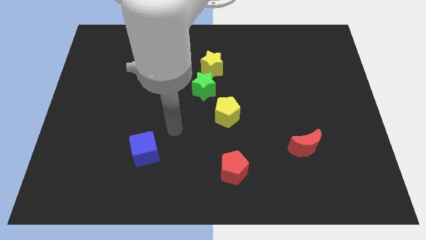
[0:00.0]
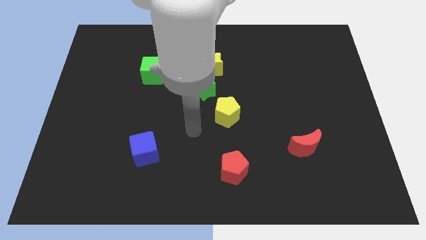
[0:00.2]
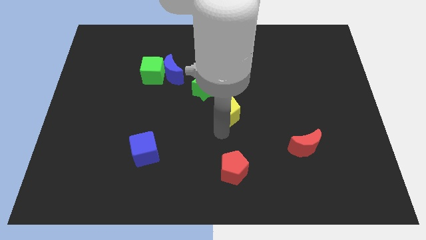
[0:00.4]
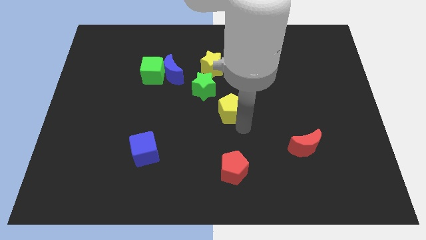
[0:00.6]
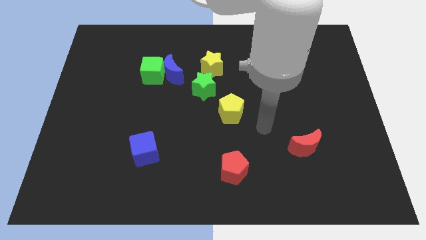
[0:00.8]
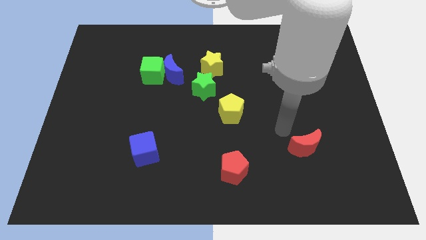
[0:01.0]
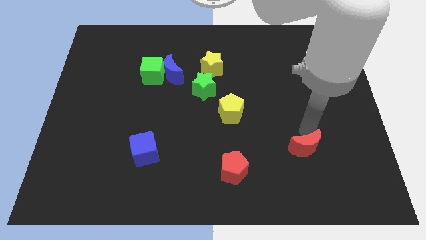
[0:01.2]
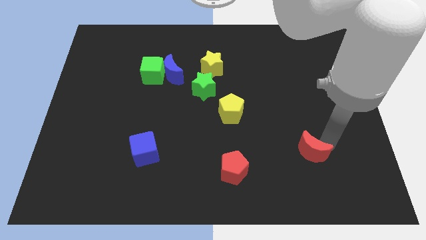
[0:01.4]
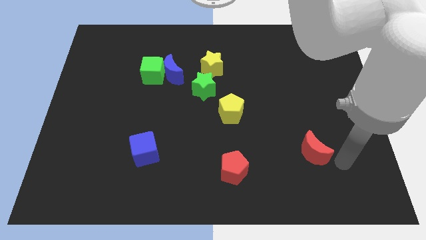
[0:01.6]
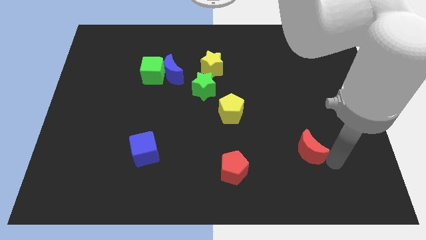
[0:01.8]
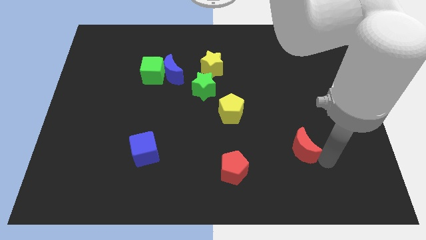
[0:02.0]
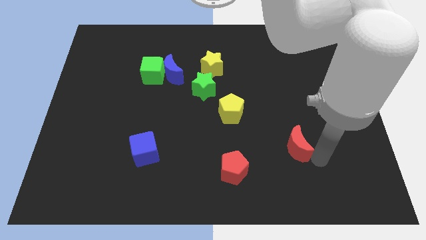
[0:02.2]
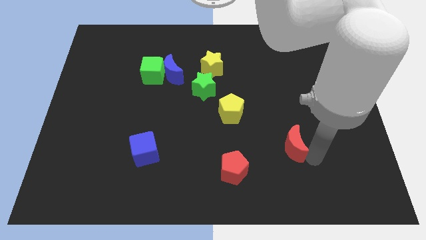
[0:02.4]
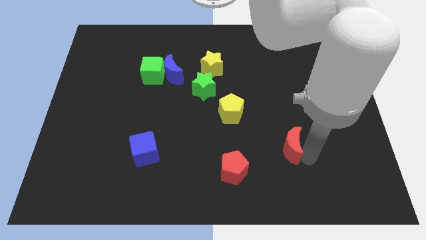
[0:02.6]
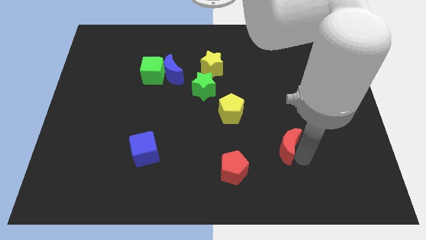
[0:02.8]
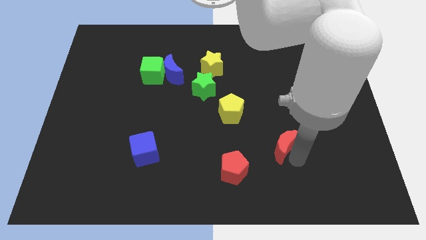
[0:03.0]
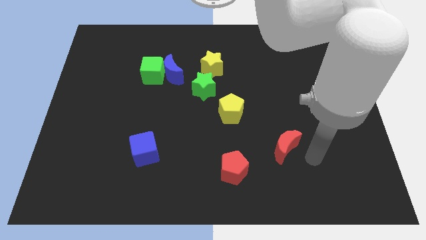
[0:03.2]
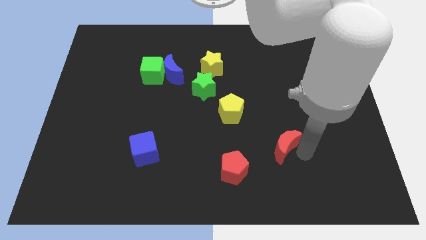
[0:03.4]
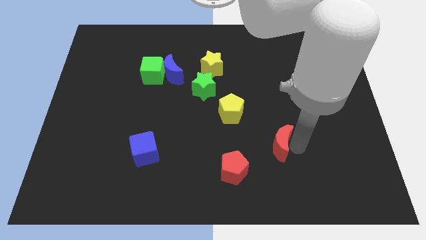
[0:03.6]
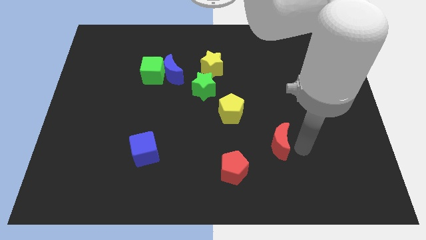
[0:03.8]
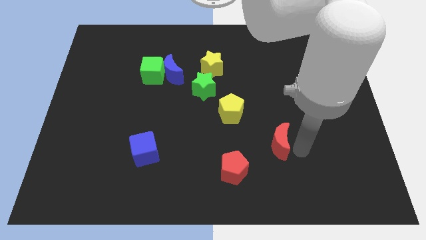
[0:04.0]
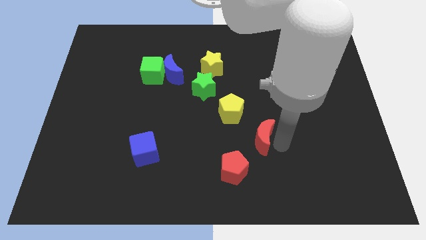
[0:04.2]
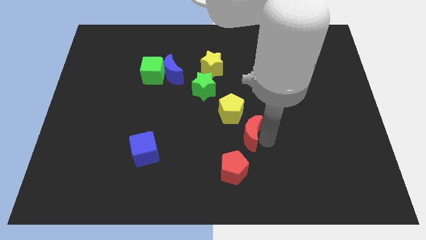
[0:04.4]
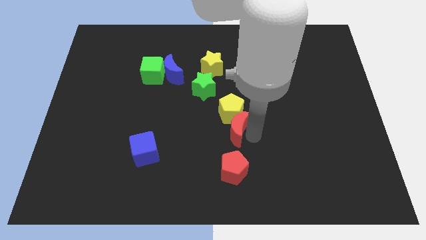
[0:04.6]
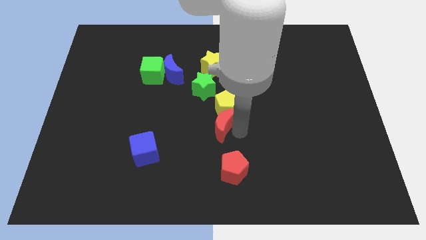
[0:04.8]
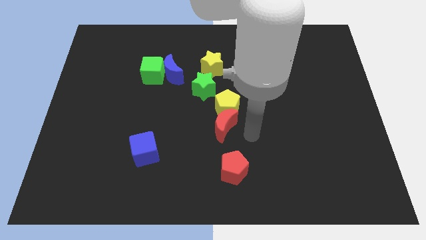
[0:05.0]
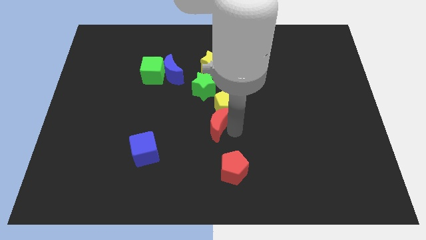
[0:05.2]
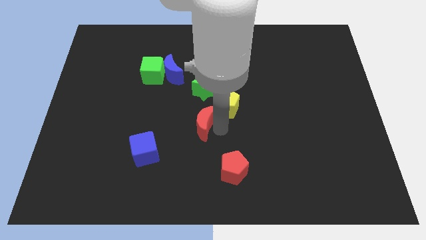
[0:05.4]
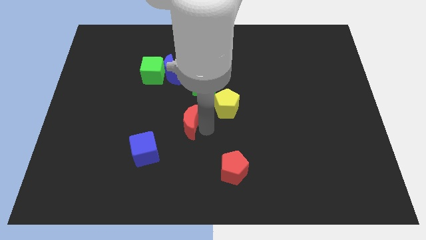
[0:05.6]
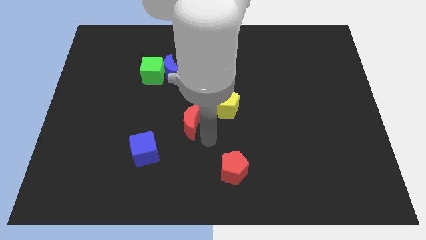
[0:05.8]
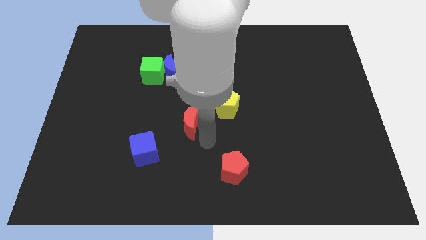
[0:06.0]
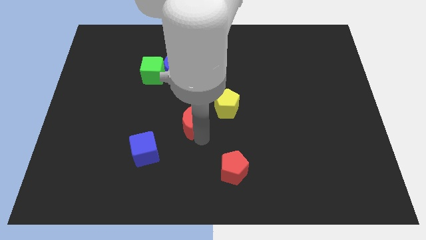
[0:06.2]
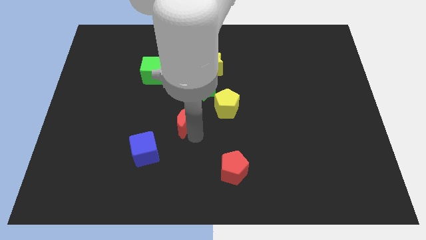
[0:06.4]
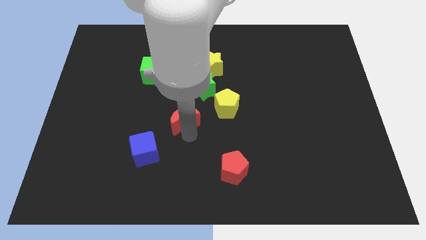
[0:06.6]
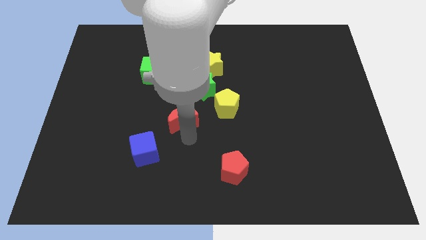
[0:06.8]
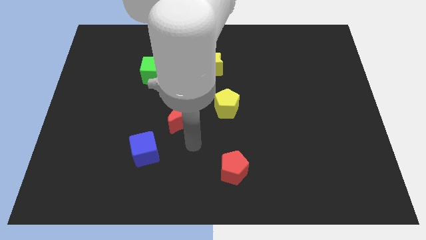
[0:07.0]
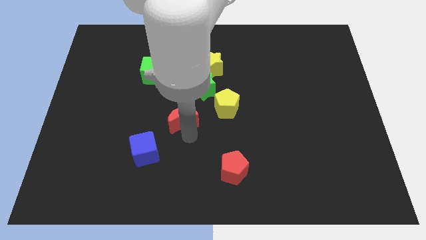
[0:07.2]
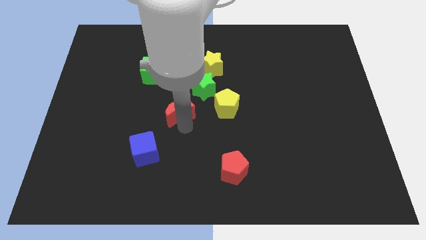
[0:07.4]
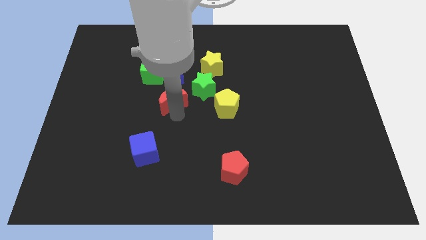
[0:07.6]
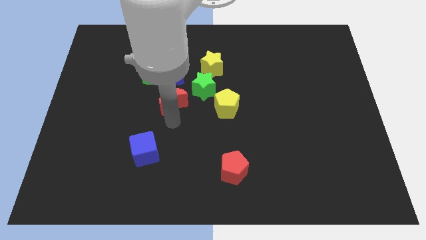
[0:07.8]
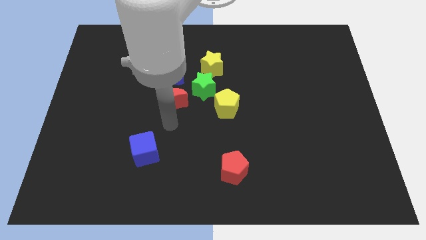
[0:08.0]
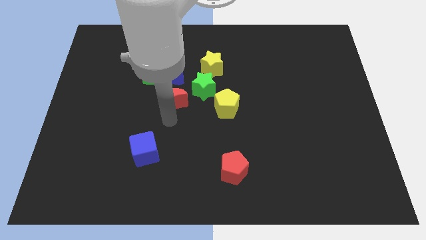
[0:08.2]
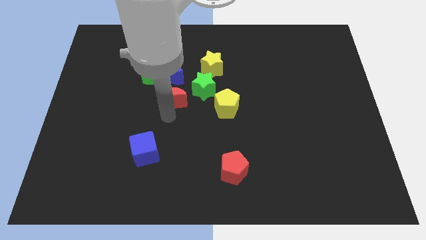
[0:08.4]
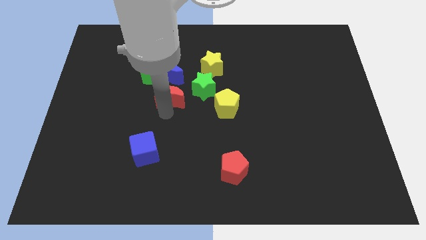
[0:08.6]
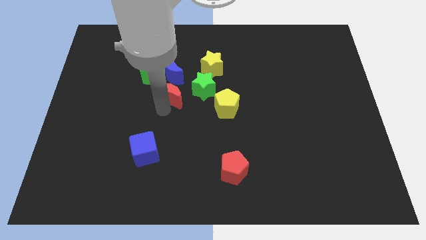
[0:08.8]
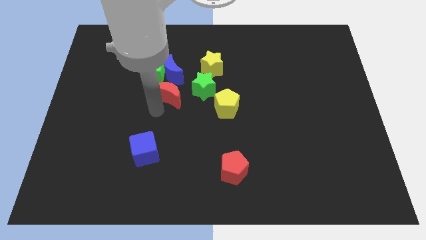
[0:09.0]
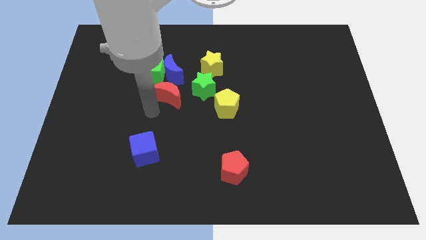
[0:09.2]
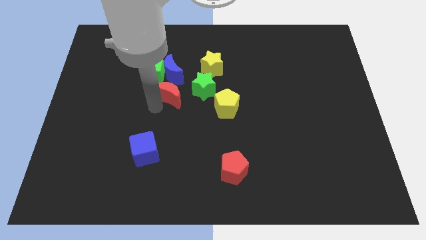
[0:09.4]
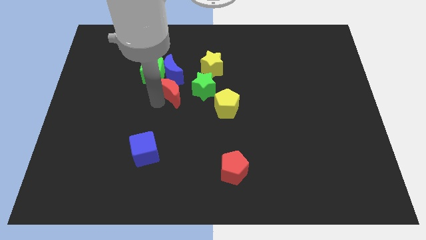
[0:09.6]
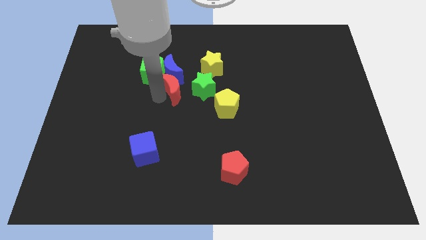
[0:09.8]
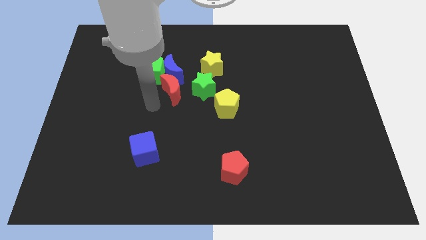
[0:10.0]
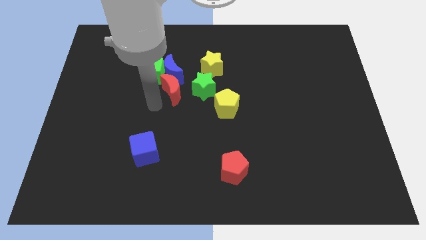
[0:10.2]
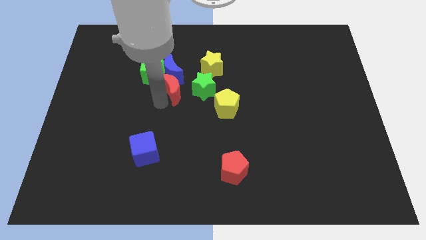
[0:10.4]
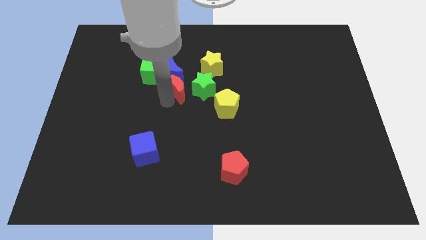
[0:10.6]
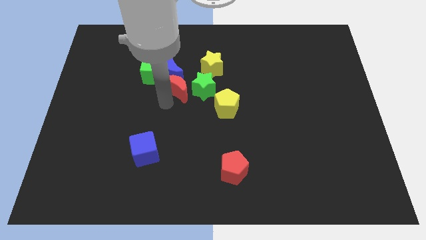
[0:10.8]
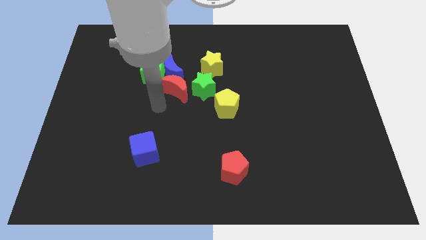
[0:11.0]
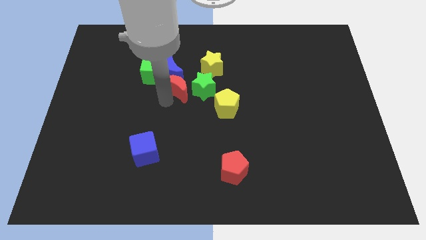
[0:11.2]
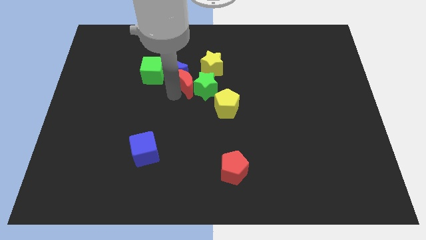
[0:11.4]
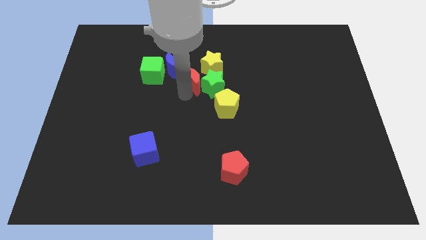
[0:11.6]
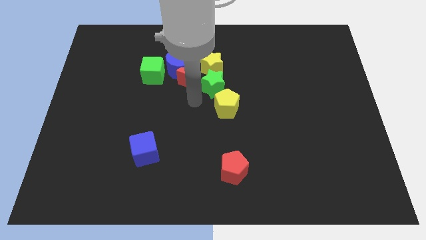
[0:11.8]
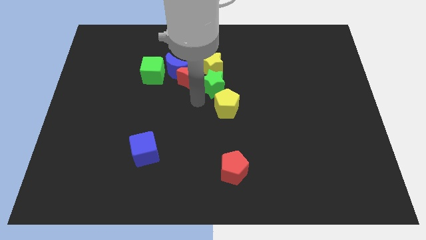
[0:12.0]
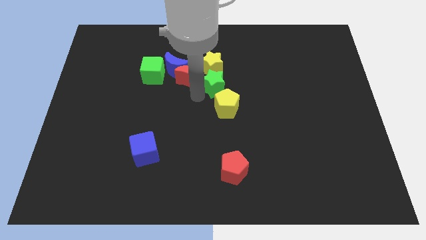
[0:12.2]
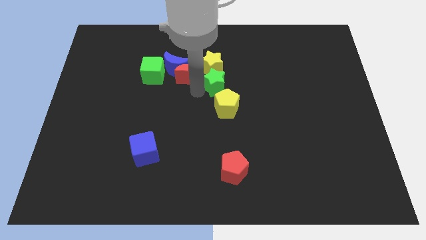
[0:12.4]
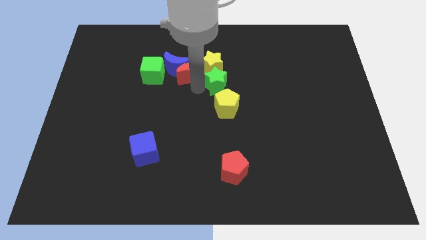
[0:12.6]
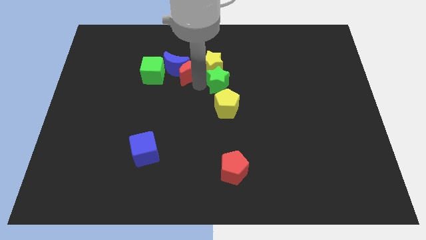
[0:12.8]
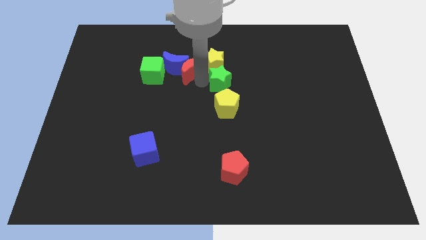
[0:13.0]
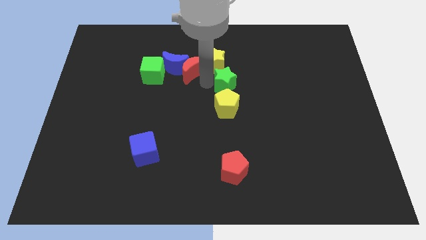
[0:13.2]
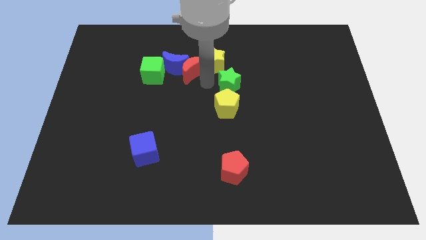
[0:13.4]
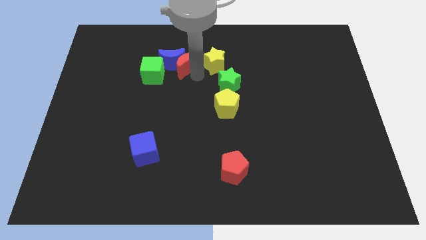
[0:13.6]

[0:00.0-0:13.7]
put the red moon diagonally up and to the right of the green cube

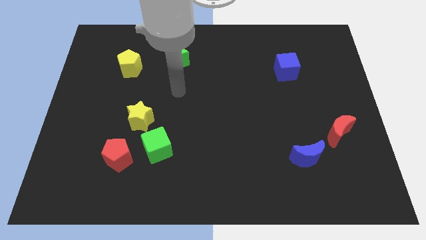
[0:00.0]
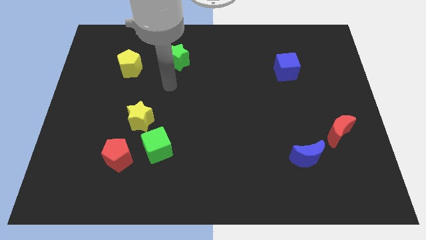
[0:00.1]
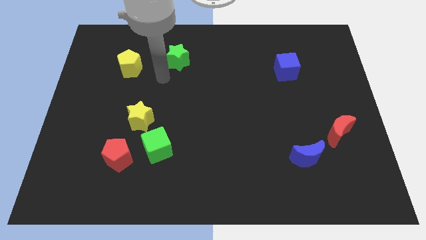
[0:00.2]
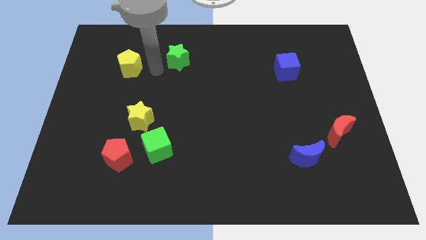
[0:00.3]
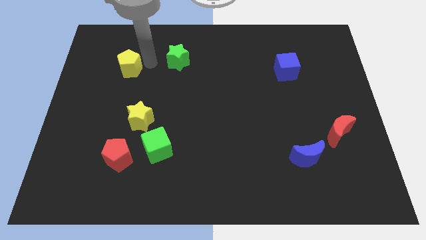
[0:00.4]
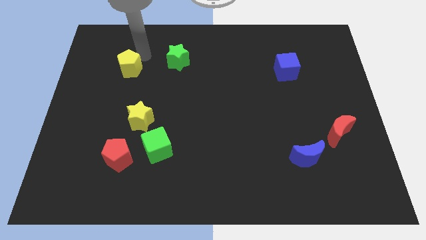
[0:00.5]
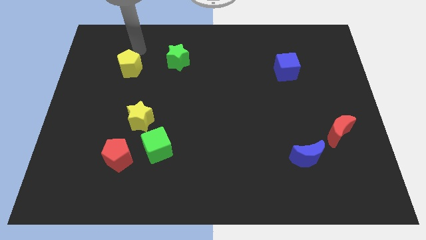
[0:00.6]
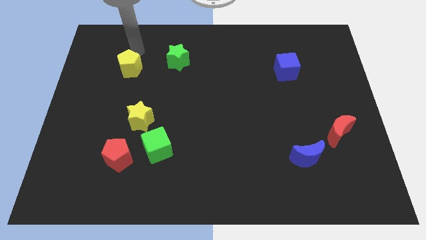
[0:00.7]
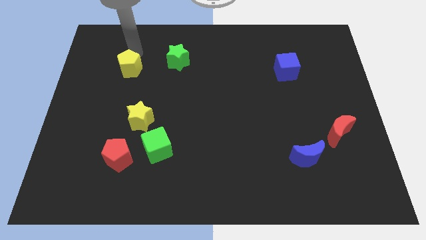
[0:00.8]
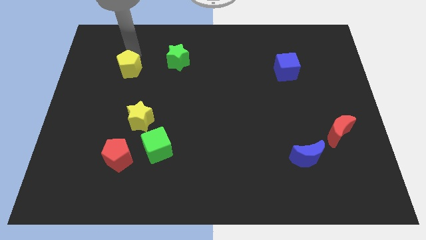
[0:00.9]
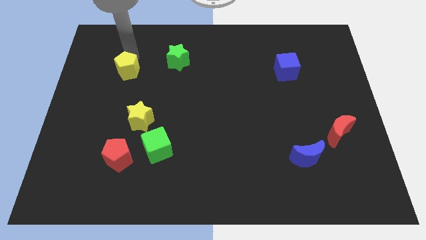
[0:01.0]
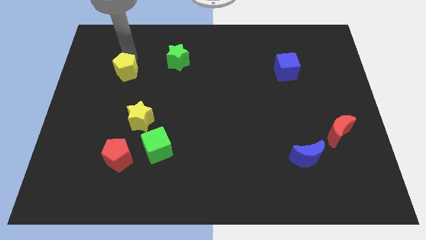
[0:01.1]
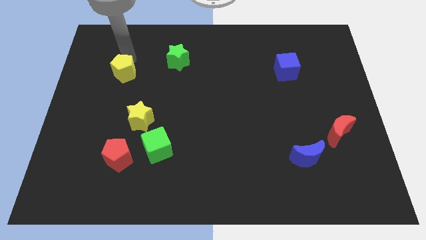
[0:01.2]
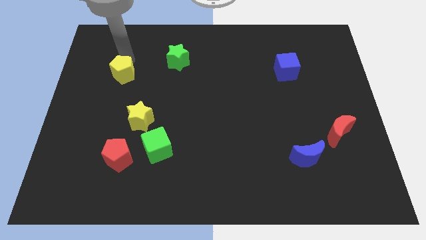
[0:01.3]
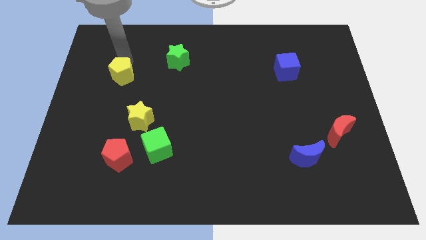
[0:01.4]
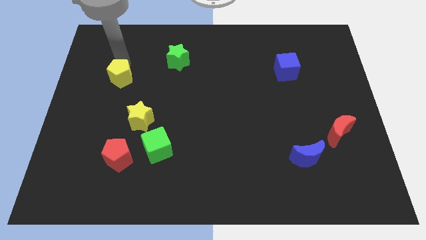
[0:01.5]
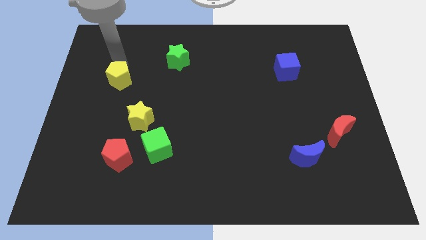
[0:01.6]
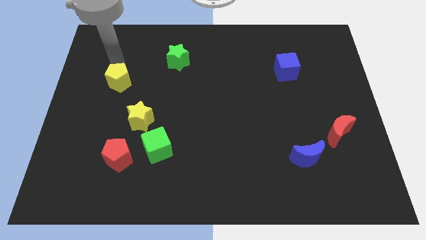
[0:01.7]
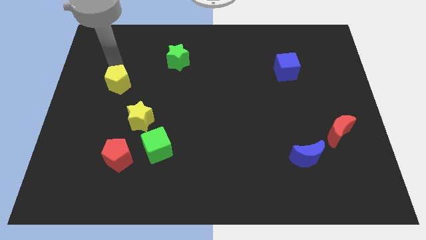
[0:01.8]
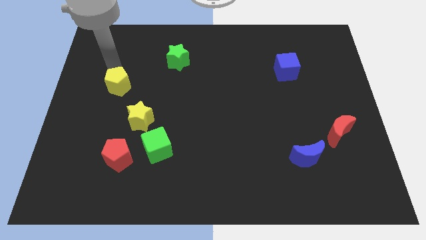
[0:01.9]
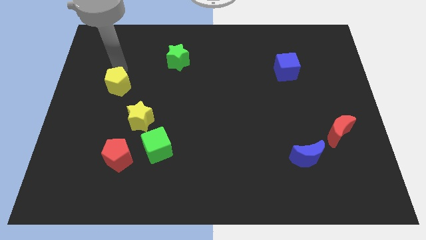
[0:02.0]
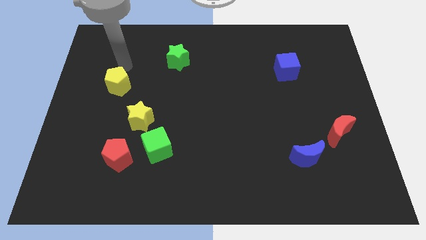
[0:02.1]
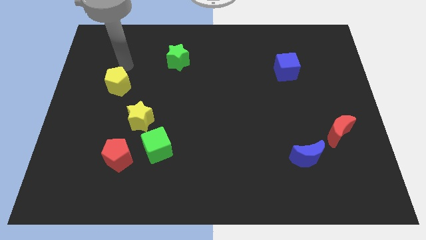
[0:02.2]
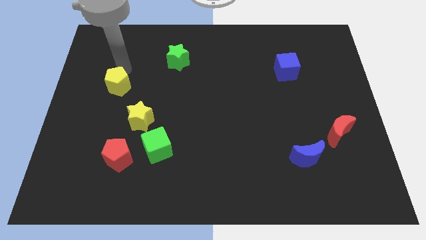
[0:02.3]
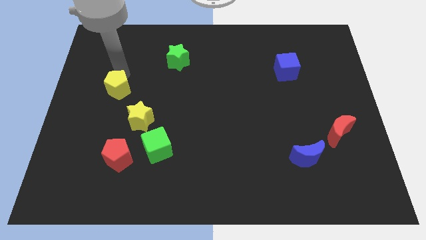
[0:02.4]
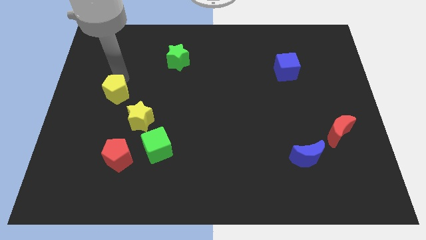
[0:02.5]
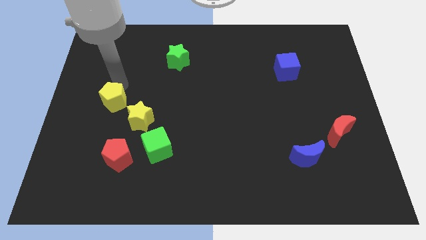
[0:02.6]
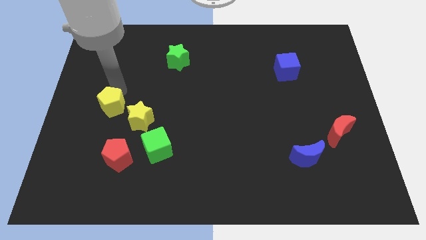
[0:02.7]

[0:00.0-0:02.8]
slide the yellow pentagon just left of the yellow star
